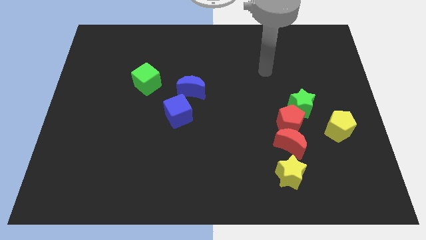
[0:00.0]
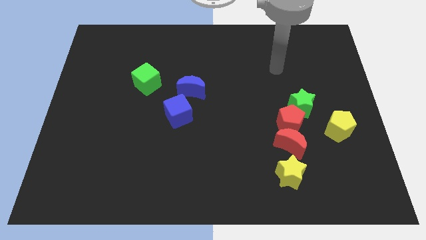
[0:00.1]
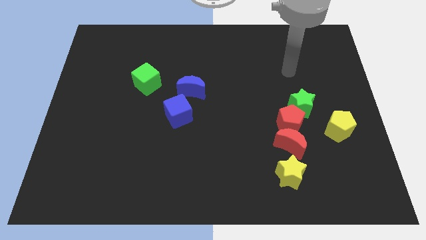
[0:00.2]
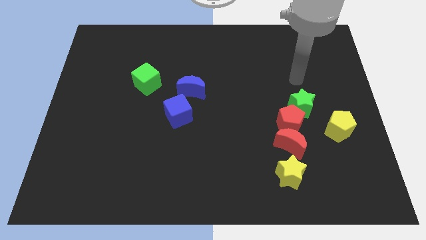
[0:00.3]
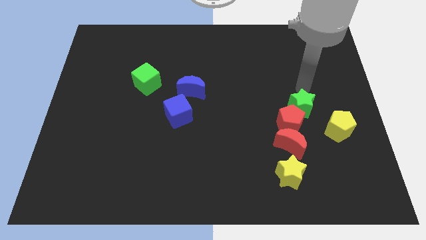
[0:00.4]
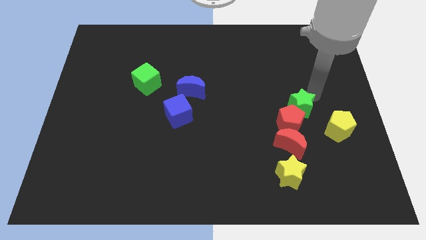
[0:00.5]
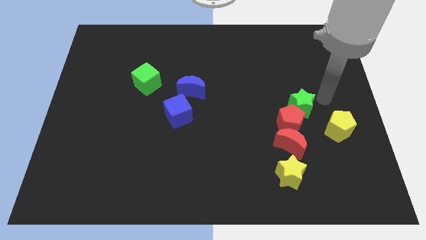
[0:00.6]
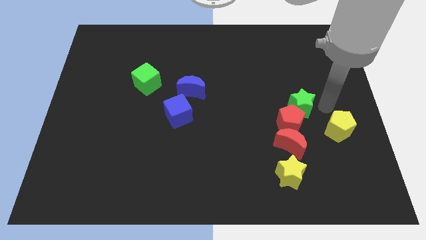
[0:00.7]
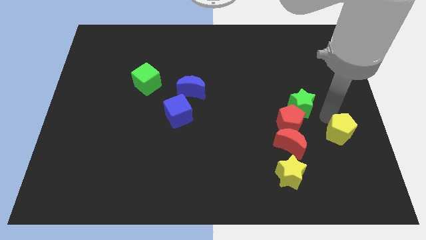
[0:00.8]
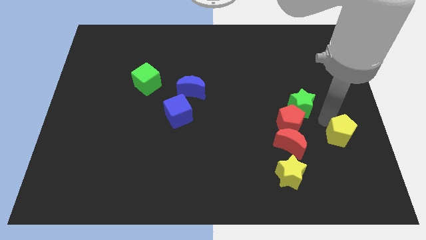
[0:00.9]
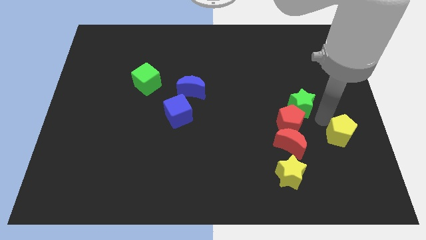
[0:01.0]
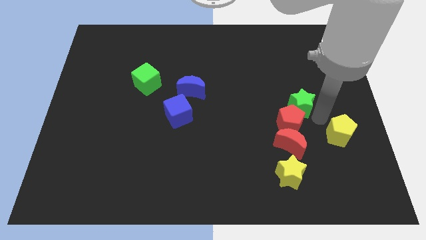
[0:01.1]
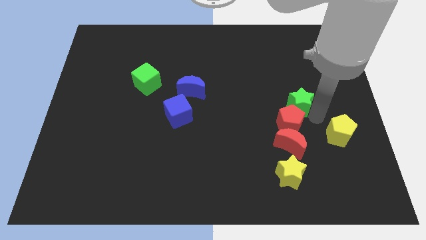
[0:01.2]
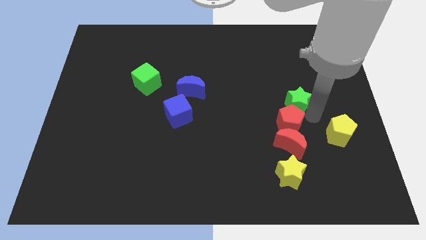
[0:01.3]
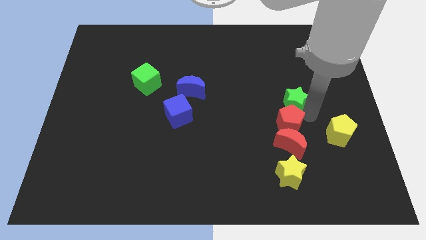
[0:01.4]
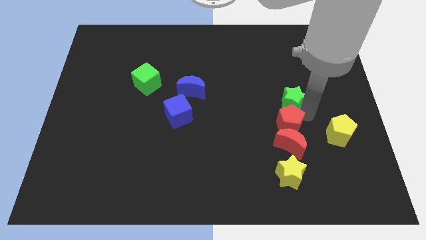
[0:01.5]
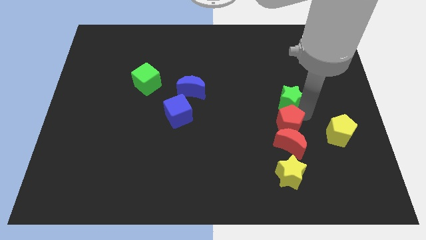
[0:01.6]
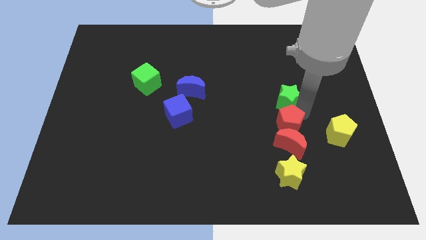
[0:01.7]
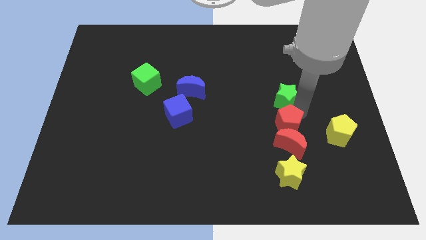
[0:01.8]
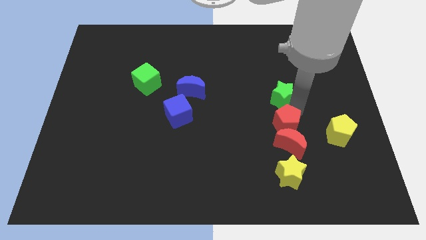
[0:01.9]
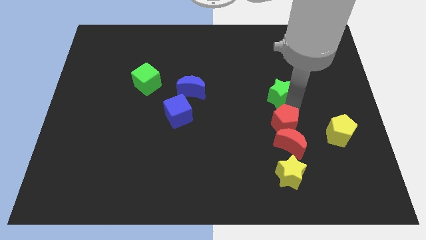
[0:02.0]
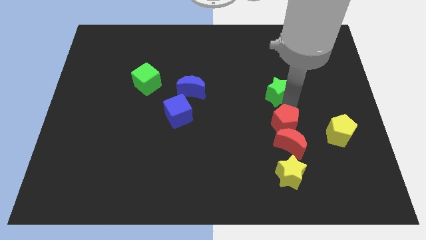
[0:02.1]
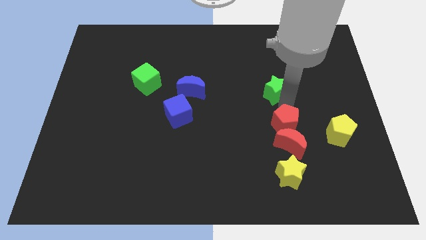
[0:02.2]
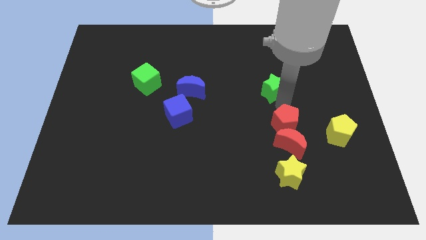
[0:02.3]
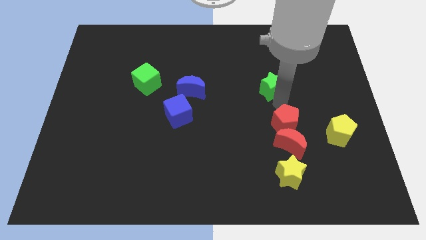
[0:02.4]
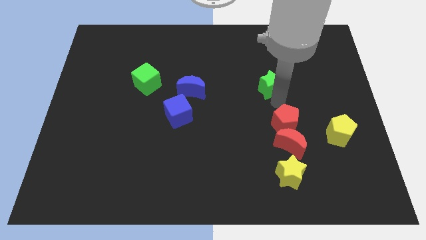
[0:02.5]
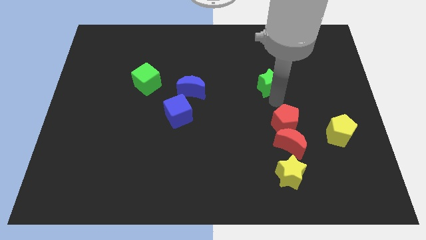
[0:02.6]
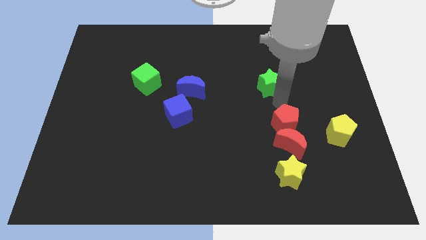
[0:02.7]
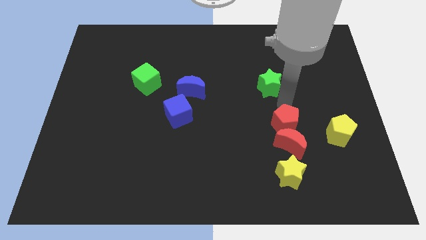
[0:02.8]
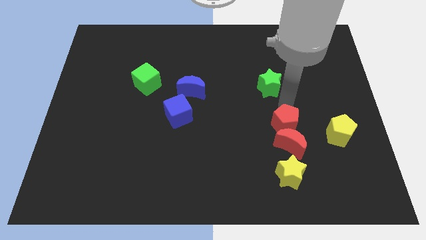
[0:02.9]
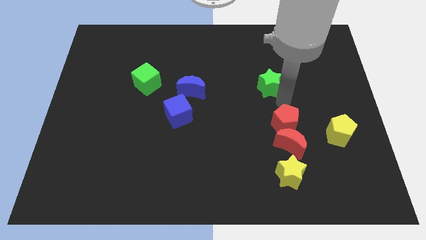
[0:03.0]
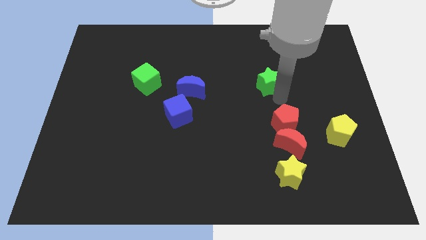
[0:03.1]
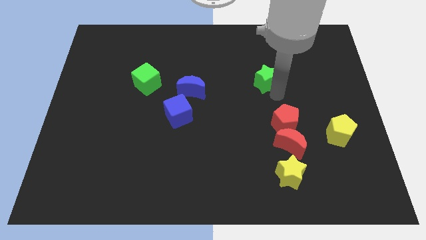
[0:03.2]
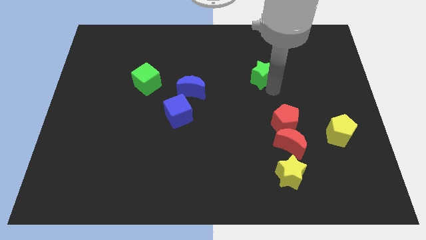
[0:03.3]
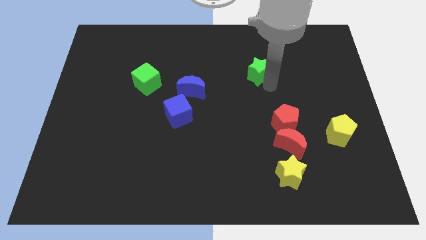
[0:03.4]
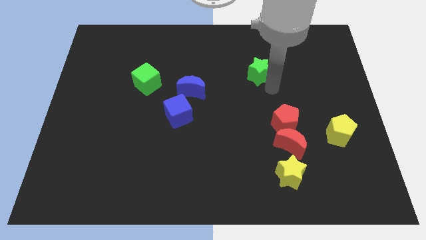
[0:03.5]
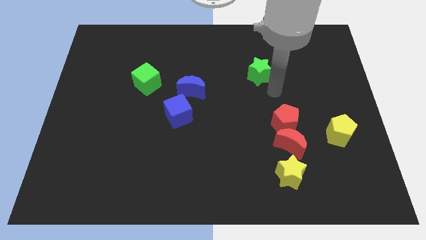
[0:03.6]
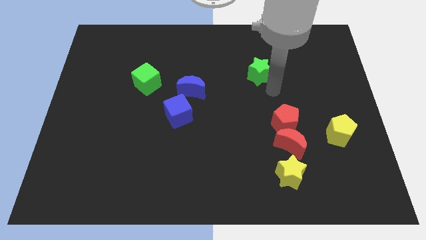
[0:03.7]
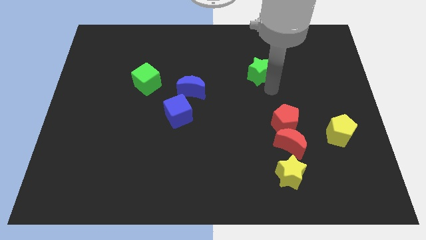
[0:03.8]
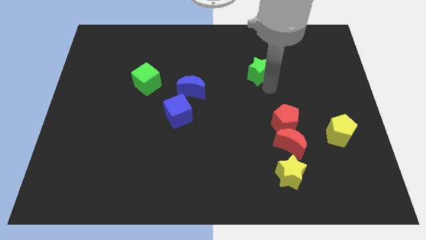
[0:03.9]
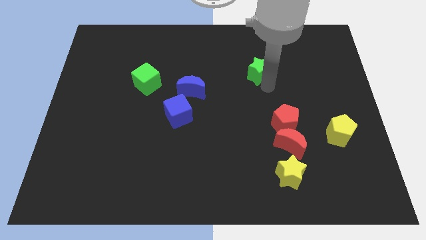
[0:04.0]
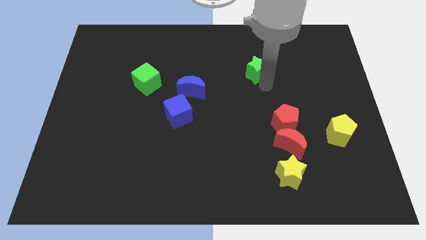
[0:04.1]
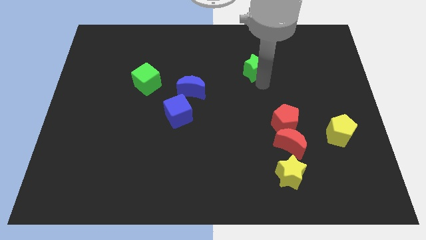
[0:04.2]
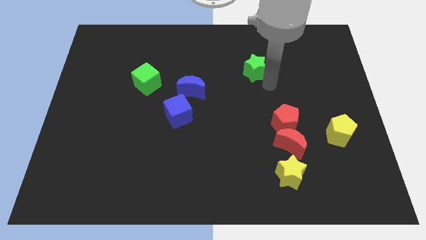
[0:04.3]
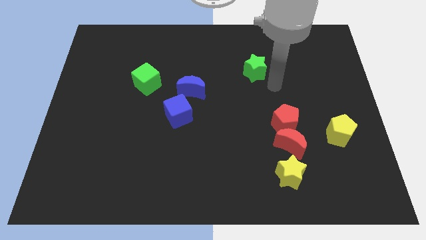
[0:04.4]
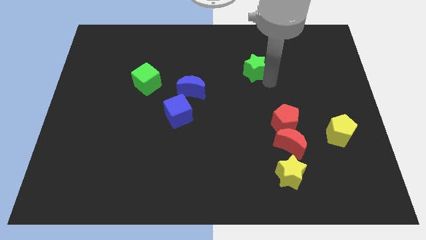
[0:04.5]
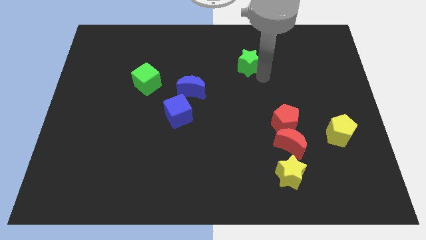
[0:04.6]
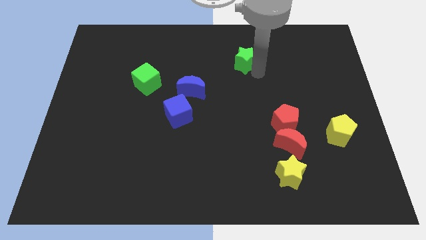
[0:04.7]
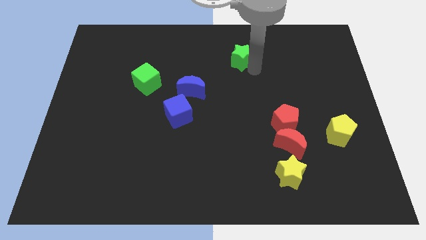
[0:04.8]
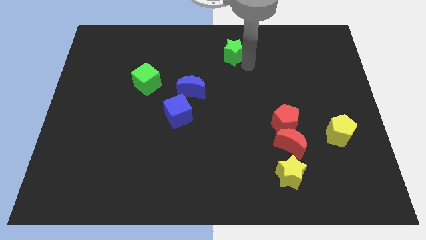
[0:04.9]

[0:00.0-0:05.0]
move the green star to the top

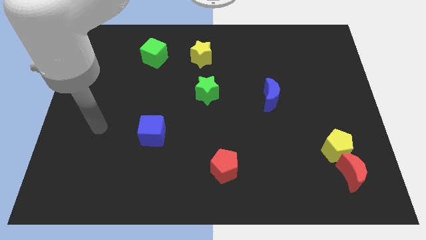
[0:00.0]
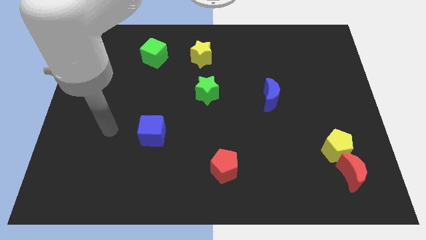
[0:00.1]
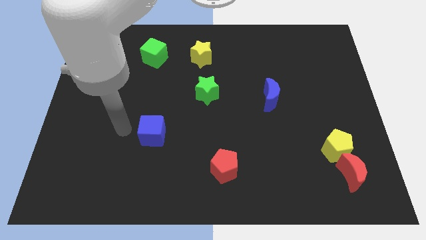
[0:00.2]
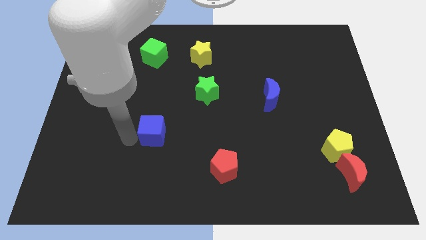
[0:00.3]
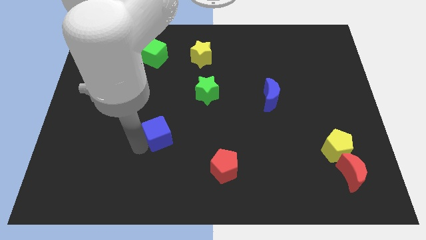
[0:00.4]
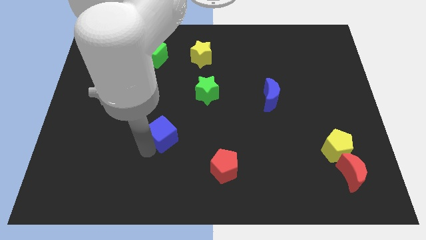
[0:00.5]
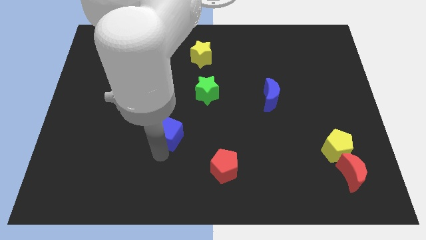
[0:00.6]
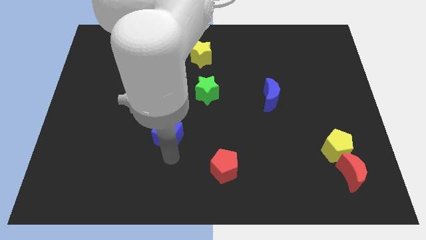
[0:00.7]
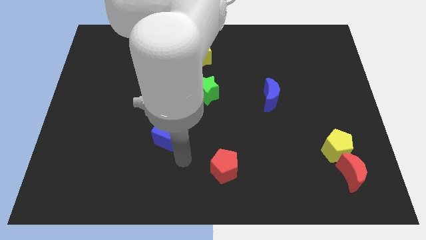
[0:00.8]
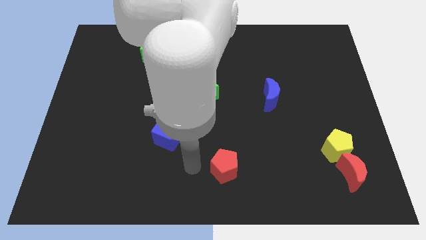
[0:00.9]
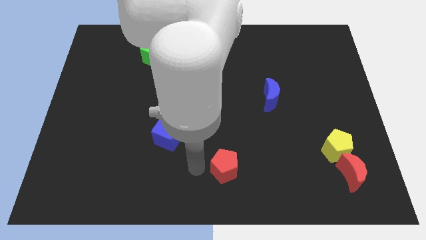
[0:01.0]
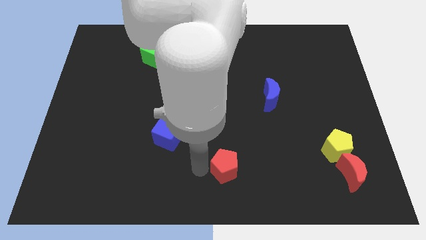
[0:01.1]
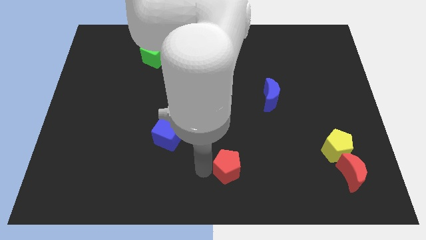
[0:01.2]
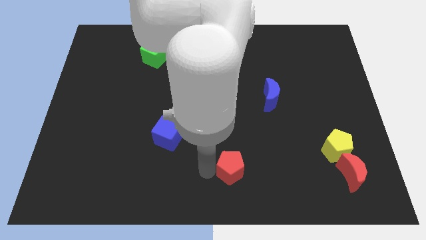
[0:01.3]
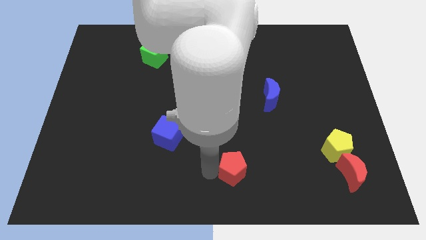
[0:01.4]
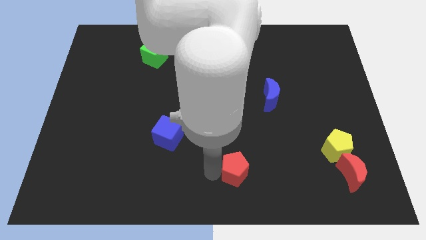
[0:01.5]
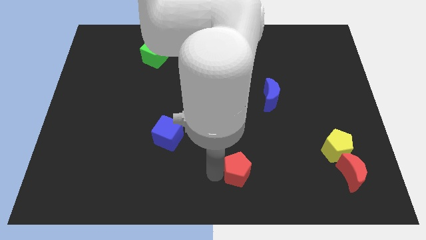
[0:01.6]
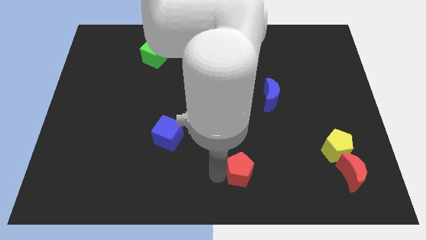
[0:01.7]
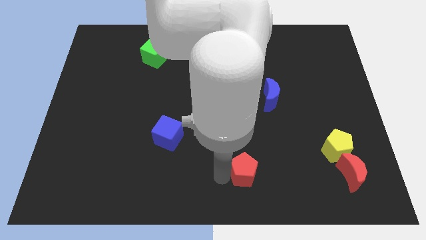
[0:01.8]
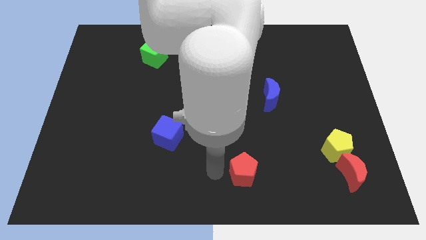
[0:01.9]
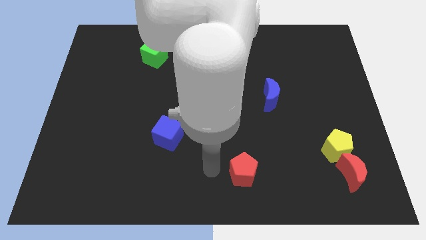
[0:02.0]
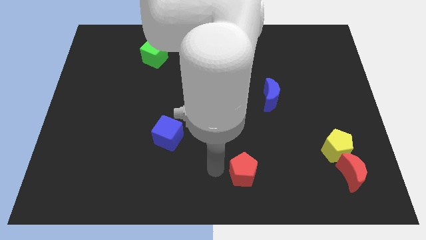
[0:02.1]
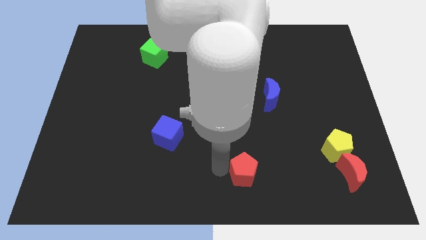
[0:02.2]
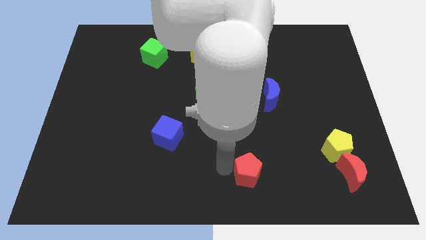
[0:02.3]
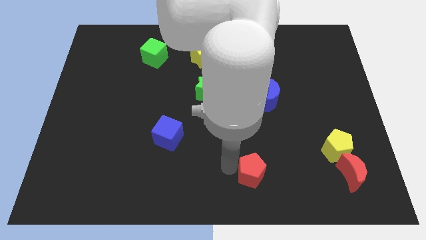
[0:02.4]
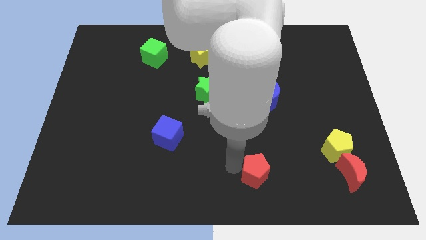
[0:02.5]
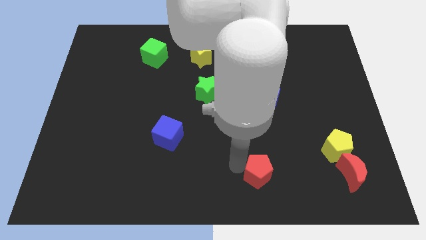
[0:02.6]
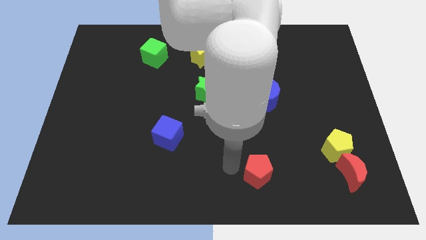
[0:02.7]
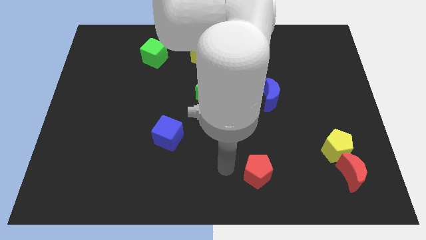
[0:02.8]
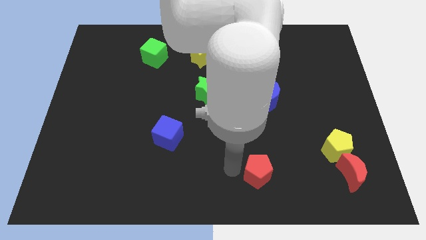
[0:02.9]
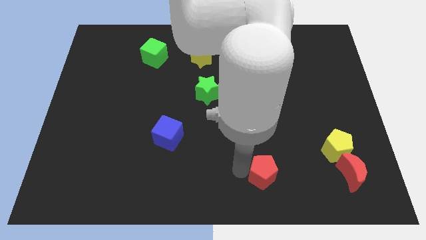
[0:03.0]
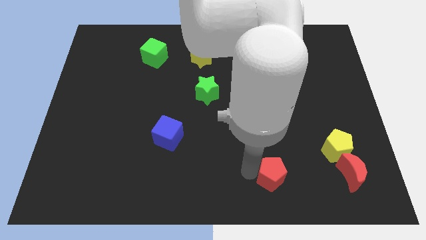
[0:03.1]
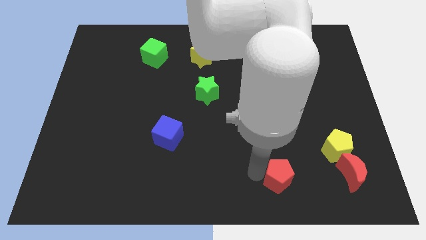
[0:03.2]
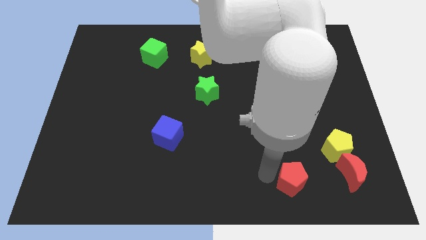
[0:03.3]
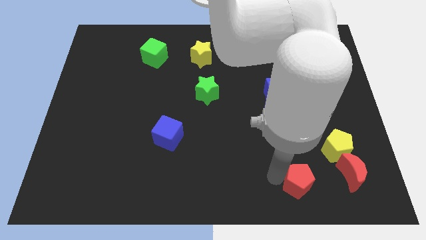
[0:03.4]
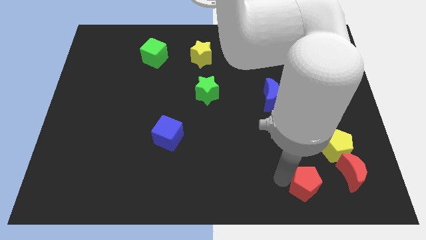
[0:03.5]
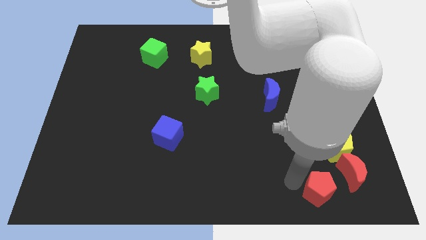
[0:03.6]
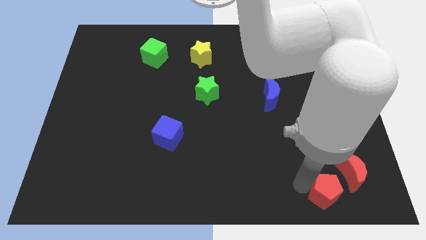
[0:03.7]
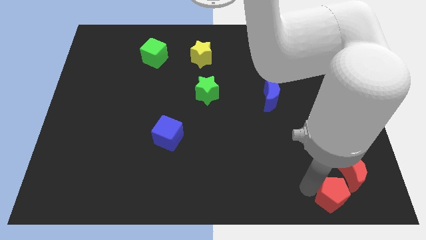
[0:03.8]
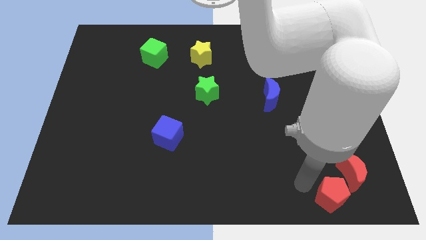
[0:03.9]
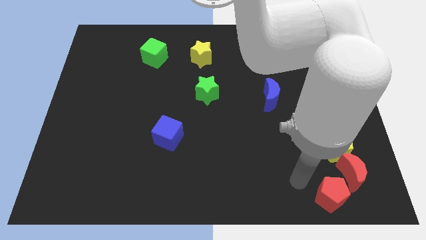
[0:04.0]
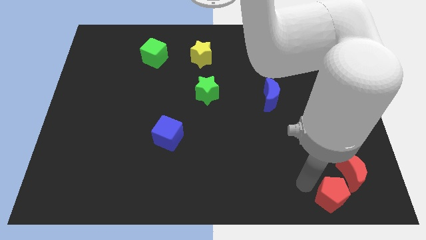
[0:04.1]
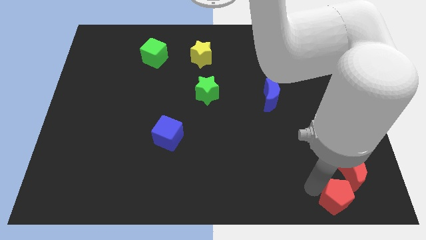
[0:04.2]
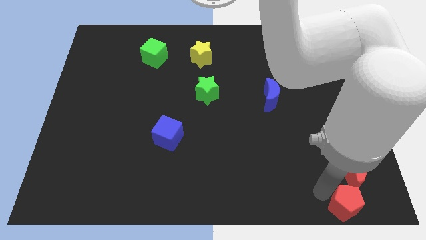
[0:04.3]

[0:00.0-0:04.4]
slide the red pentagon to the bottom right of the board
